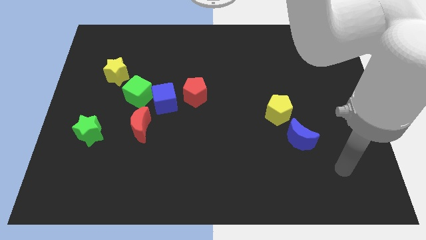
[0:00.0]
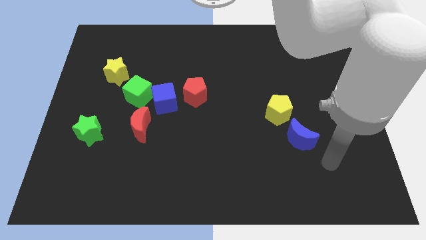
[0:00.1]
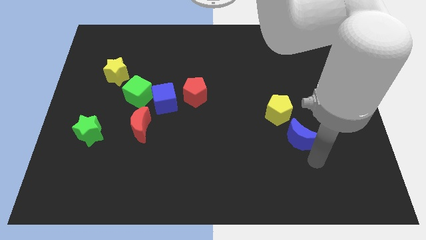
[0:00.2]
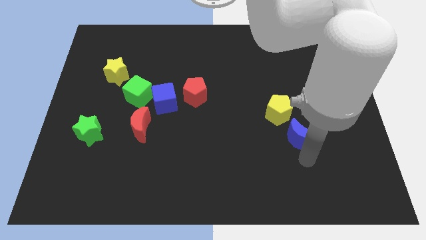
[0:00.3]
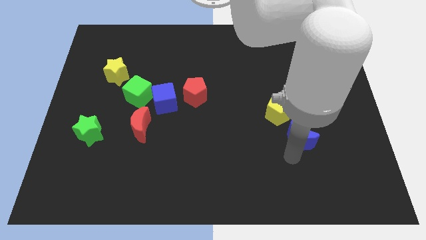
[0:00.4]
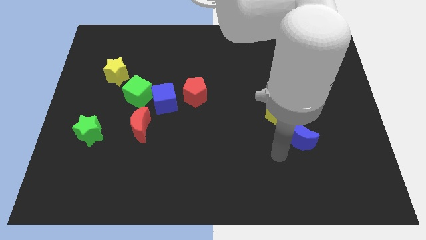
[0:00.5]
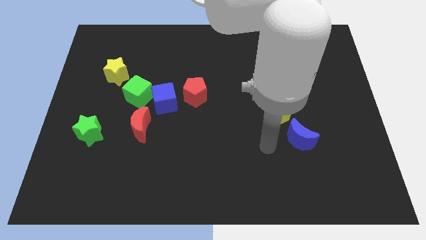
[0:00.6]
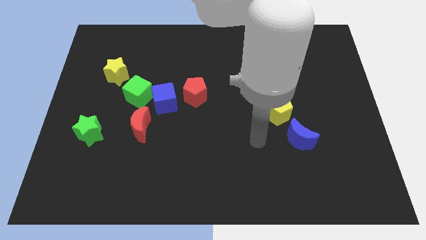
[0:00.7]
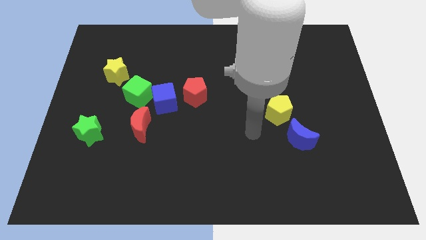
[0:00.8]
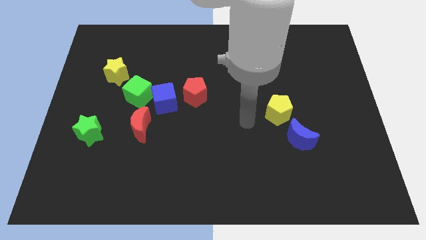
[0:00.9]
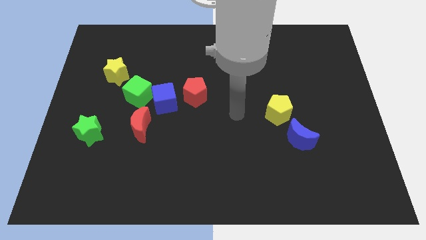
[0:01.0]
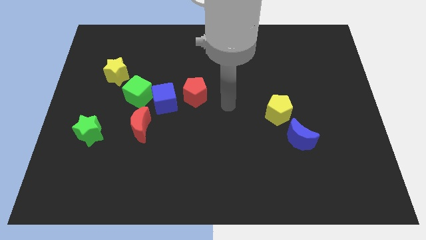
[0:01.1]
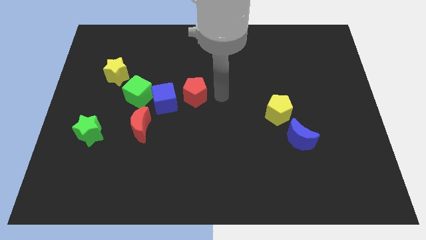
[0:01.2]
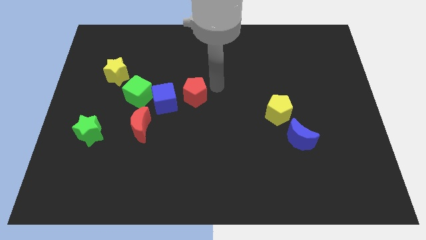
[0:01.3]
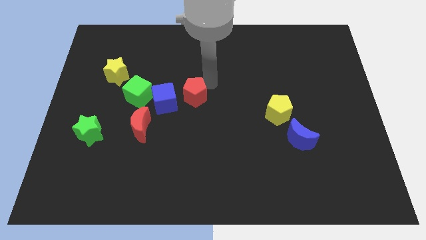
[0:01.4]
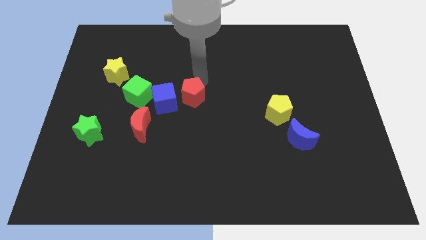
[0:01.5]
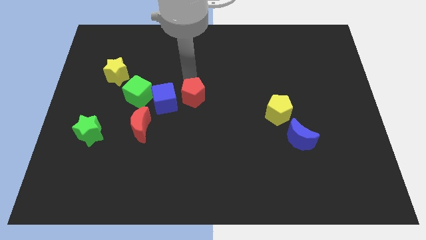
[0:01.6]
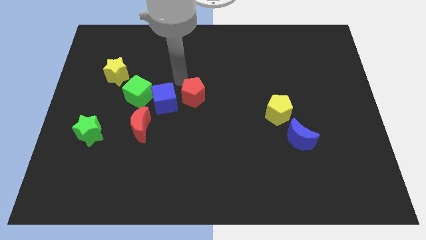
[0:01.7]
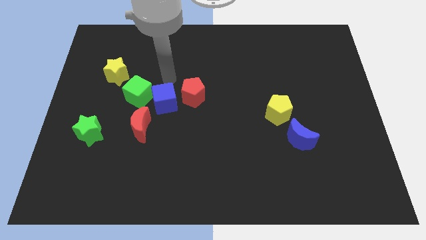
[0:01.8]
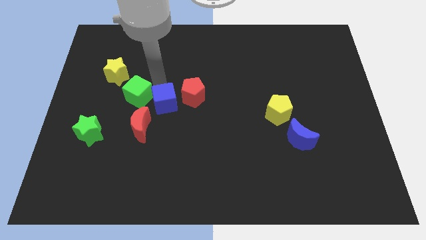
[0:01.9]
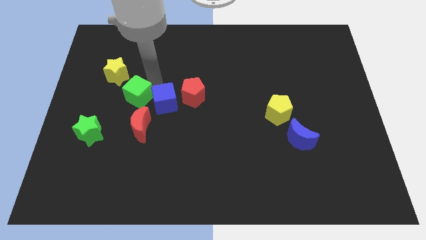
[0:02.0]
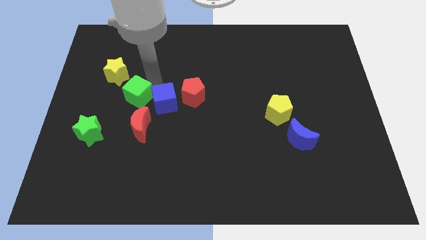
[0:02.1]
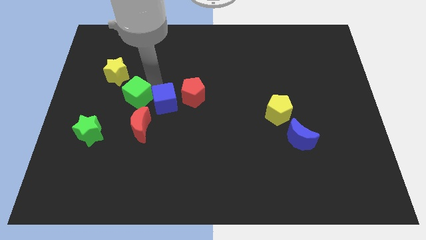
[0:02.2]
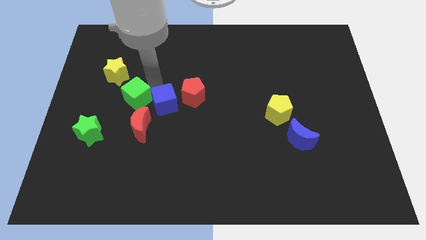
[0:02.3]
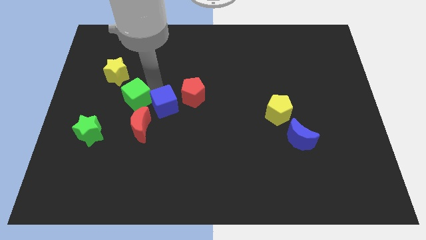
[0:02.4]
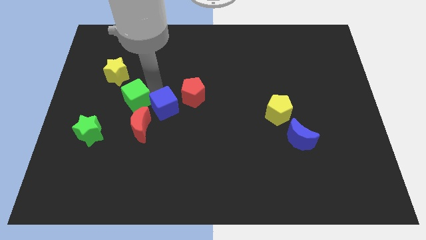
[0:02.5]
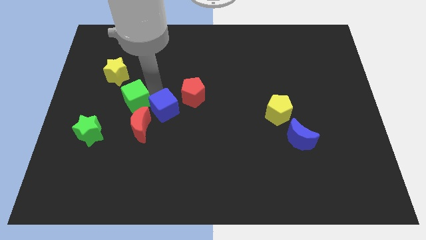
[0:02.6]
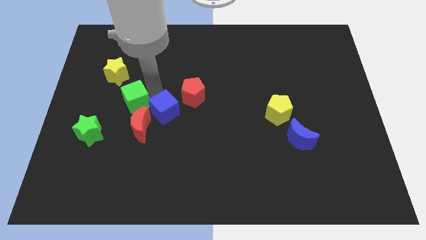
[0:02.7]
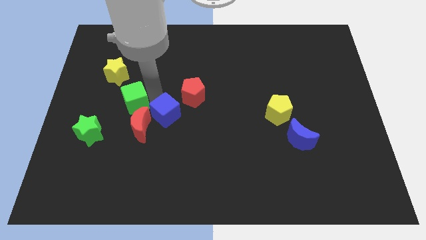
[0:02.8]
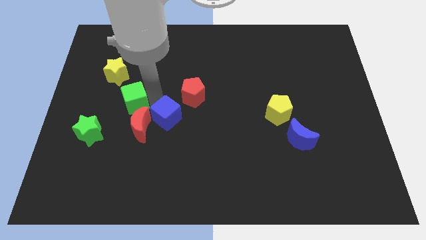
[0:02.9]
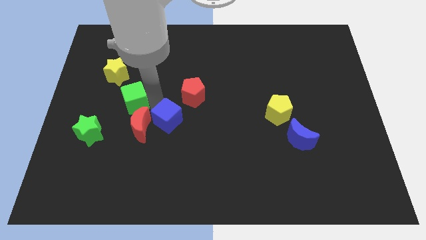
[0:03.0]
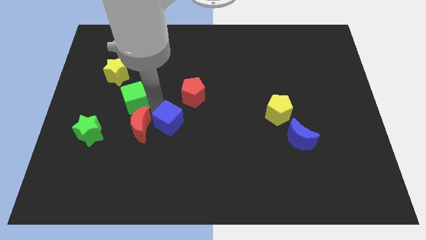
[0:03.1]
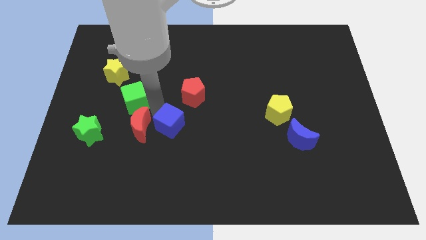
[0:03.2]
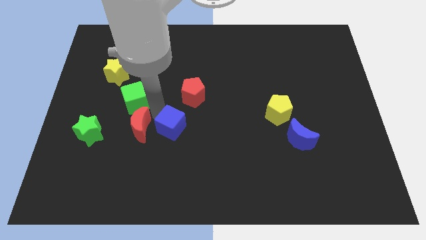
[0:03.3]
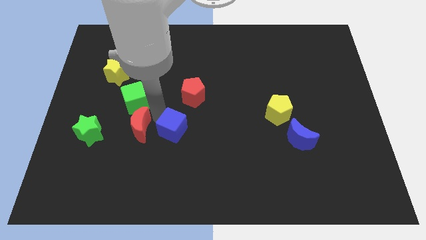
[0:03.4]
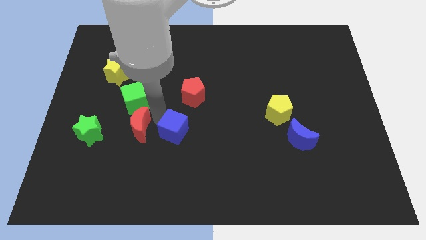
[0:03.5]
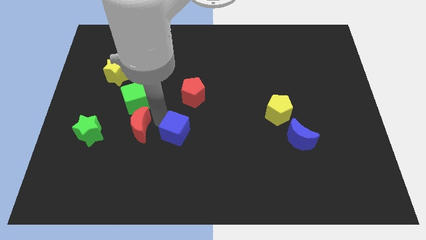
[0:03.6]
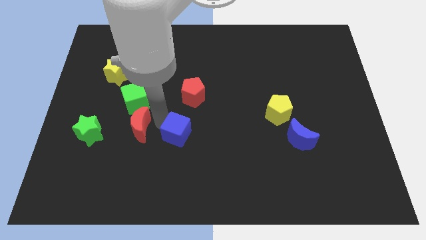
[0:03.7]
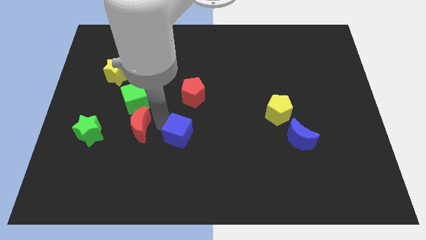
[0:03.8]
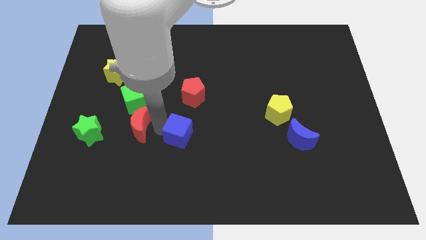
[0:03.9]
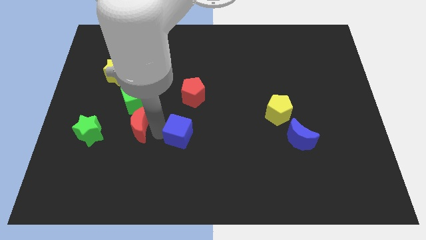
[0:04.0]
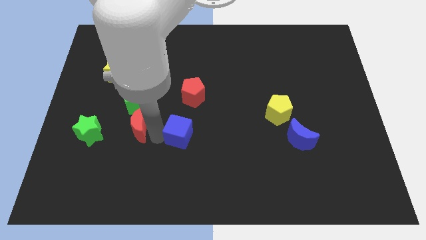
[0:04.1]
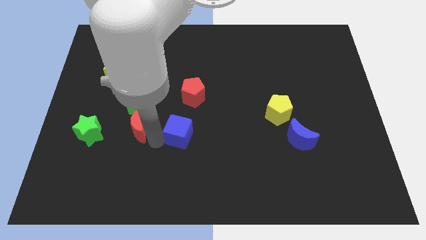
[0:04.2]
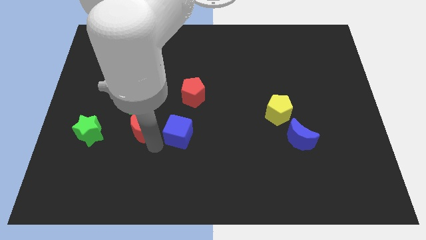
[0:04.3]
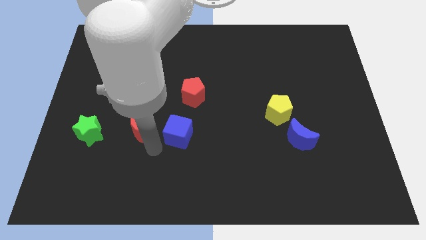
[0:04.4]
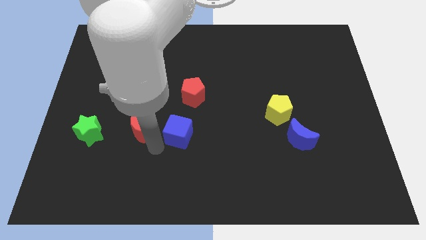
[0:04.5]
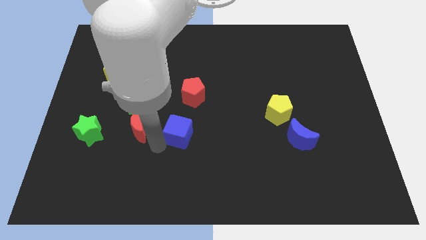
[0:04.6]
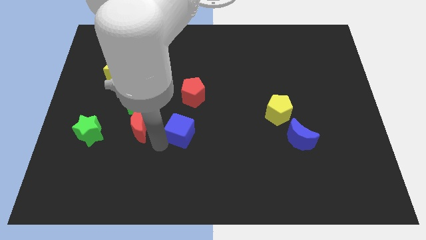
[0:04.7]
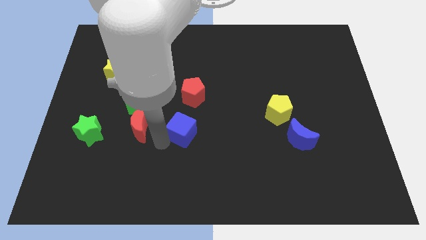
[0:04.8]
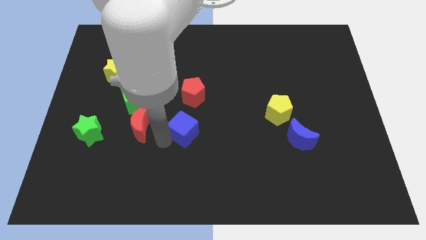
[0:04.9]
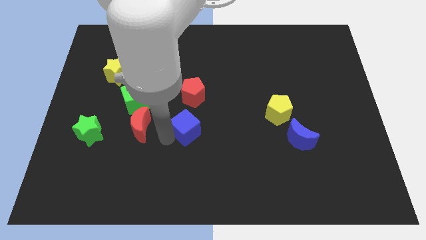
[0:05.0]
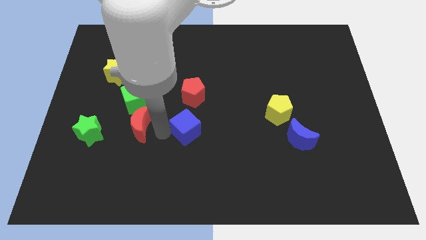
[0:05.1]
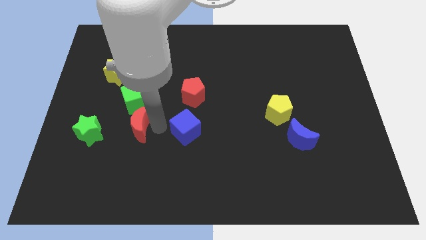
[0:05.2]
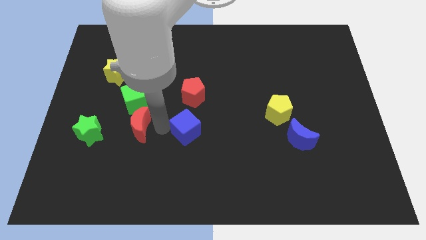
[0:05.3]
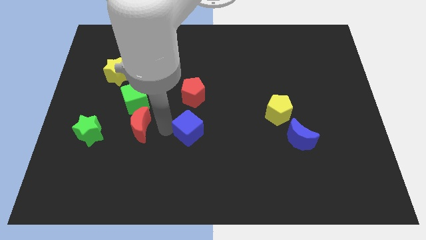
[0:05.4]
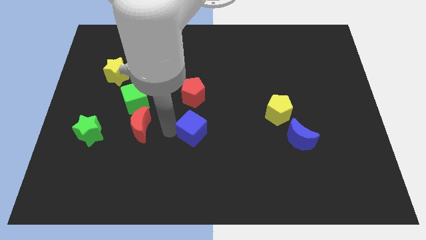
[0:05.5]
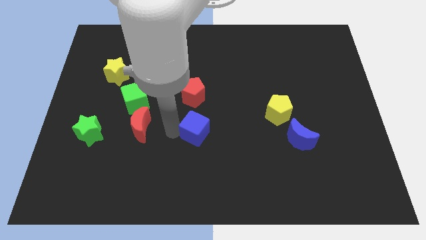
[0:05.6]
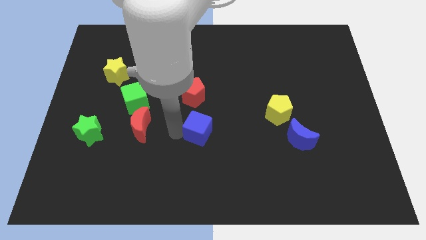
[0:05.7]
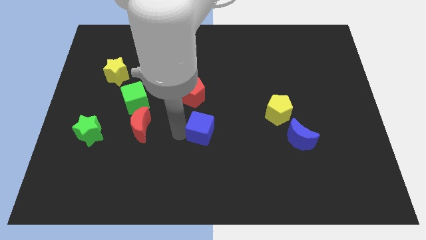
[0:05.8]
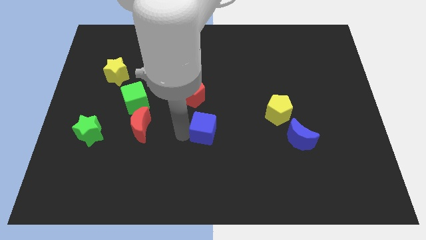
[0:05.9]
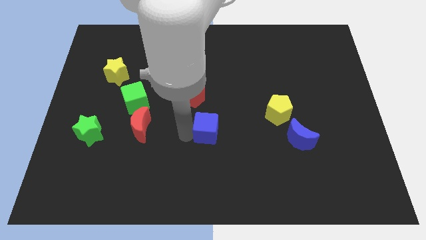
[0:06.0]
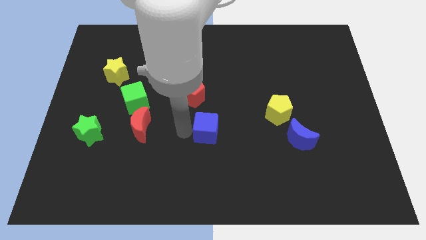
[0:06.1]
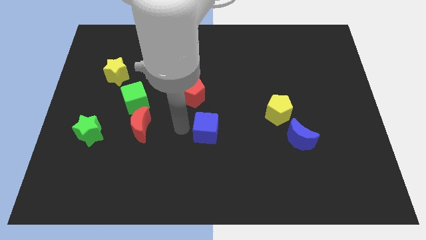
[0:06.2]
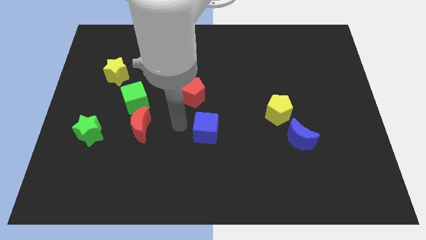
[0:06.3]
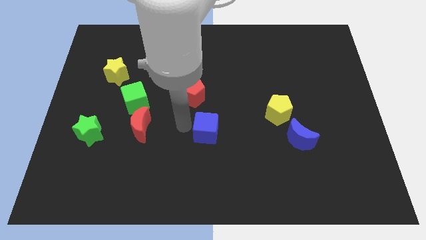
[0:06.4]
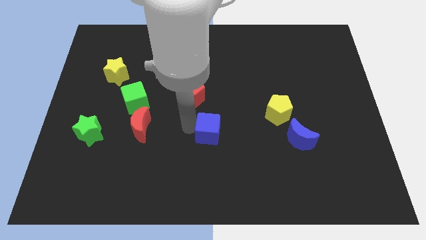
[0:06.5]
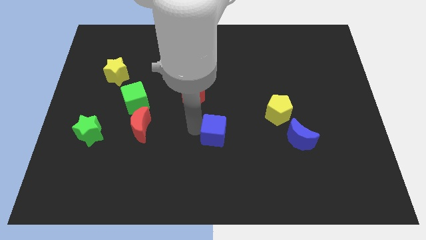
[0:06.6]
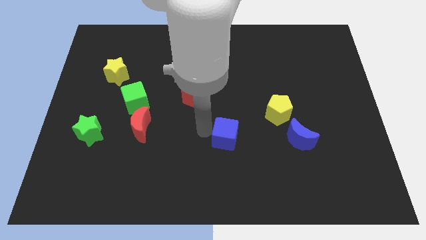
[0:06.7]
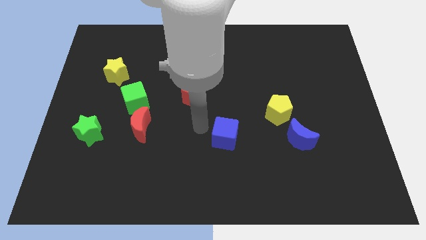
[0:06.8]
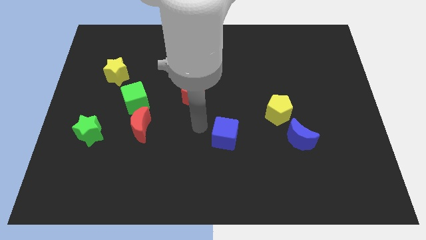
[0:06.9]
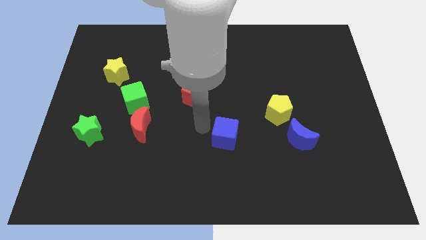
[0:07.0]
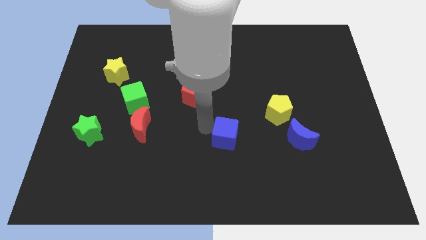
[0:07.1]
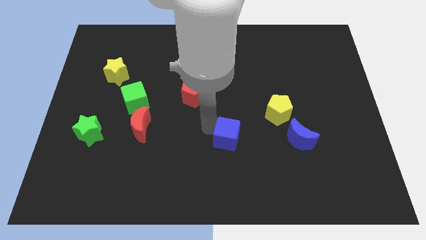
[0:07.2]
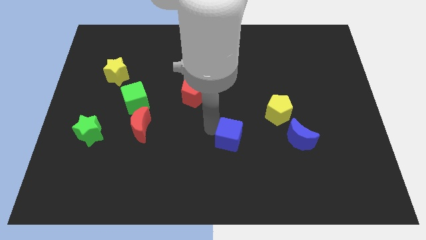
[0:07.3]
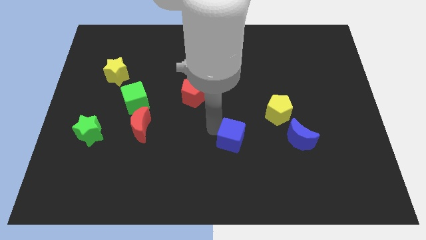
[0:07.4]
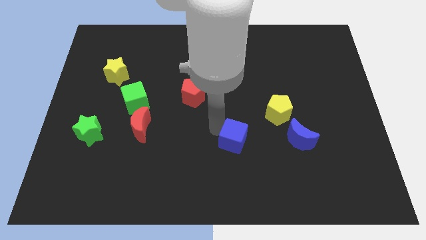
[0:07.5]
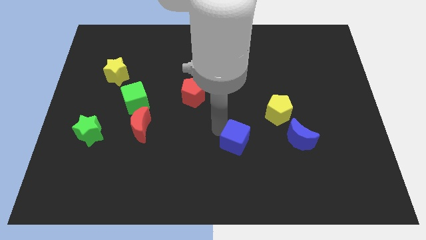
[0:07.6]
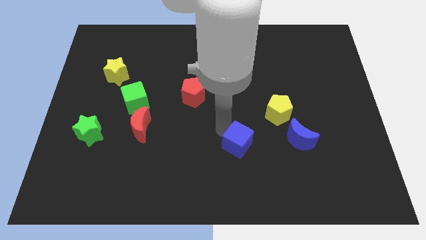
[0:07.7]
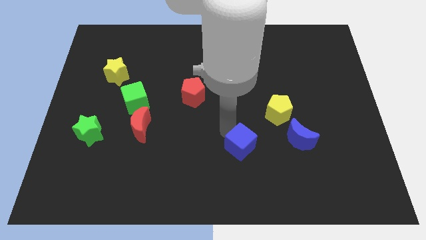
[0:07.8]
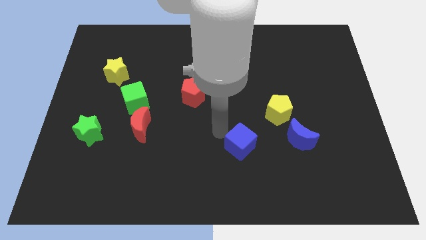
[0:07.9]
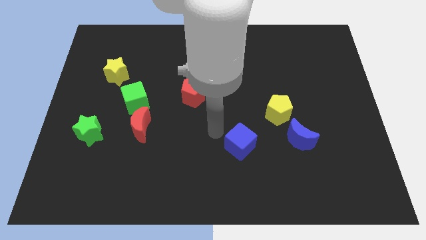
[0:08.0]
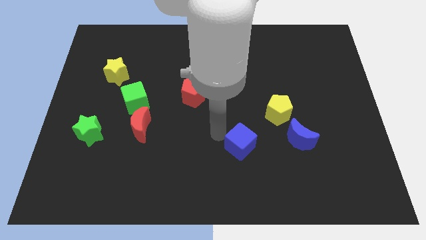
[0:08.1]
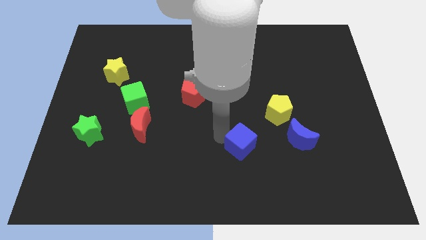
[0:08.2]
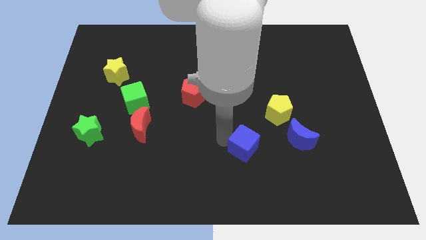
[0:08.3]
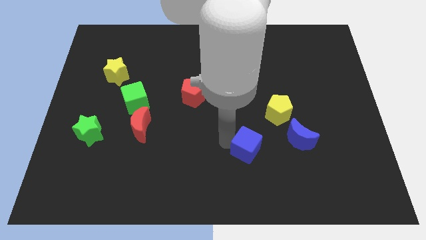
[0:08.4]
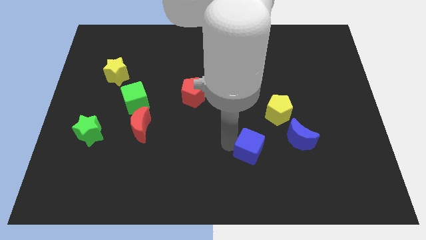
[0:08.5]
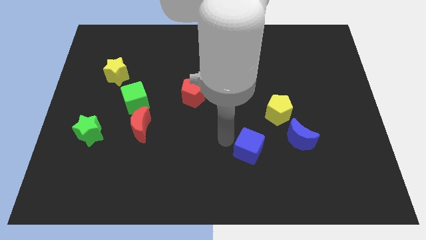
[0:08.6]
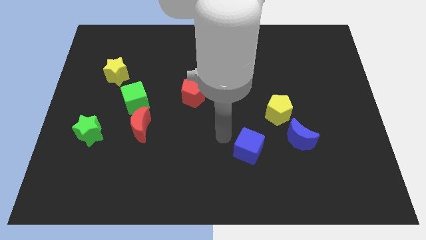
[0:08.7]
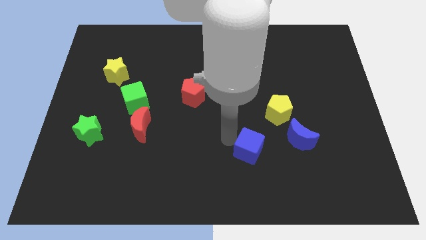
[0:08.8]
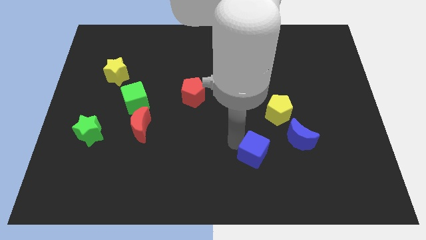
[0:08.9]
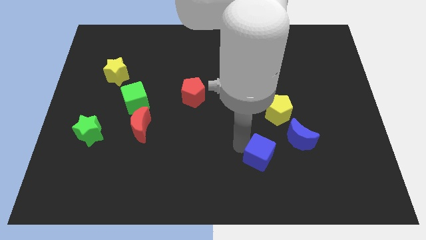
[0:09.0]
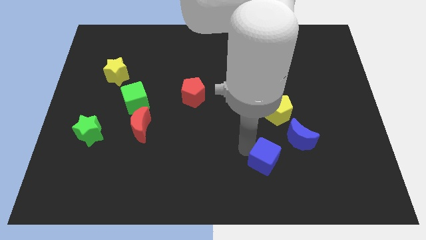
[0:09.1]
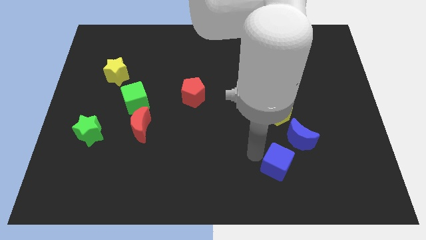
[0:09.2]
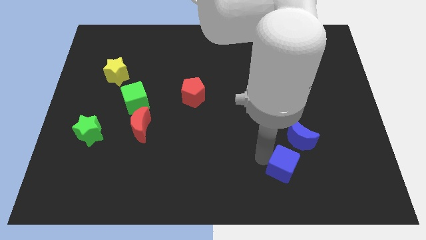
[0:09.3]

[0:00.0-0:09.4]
push the blue cube to the bottom of the blue moon
